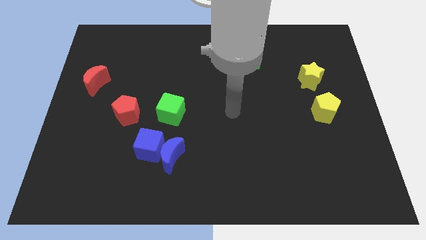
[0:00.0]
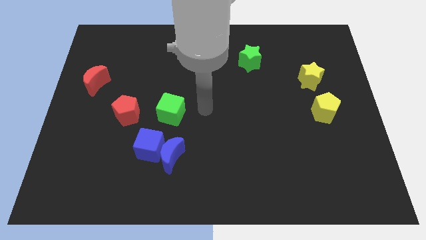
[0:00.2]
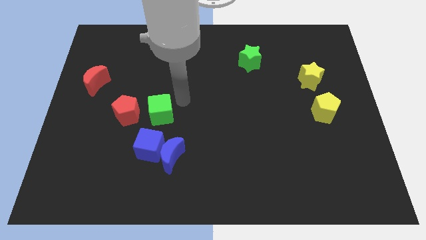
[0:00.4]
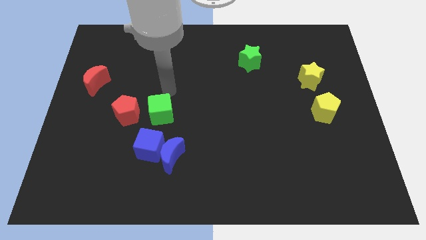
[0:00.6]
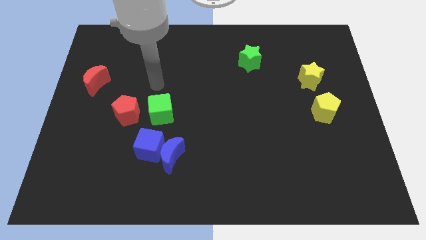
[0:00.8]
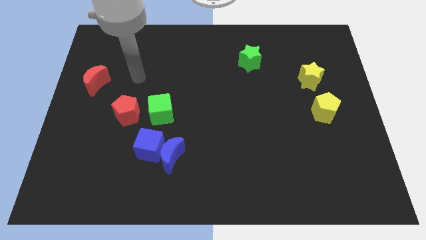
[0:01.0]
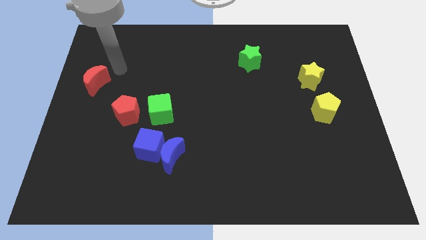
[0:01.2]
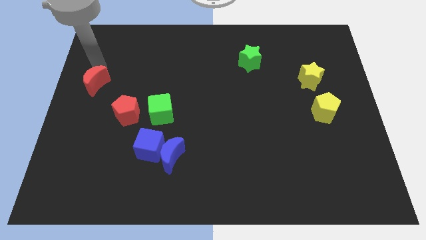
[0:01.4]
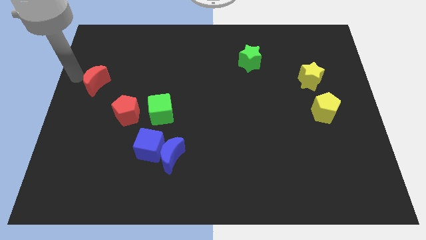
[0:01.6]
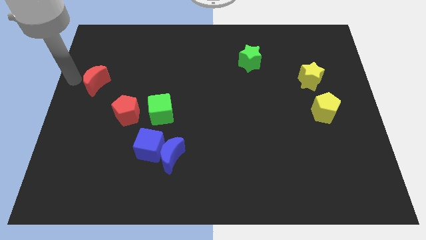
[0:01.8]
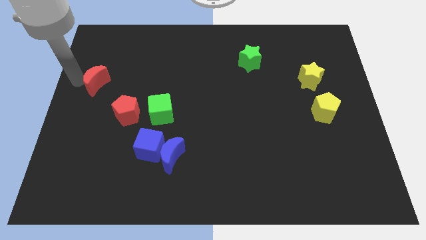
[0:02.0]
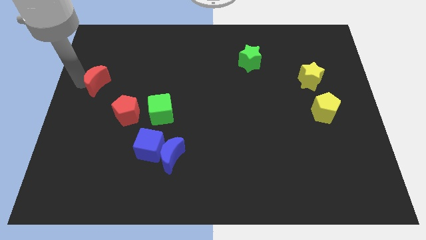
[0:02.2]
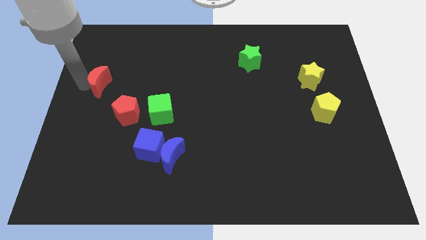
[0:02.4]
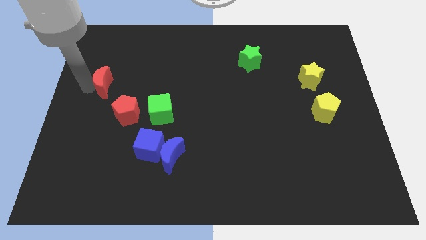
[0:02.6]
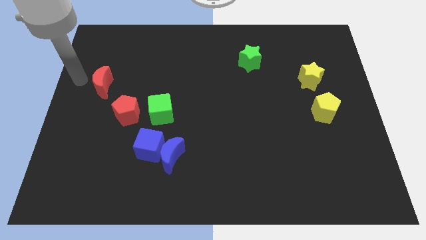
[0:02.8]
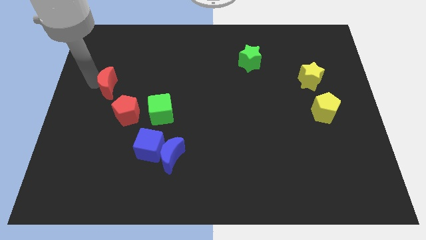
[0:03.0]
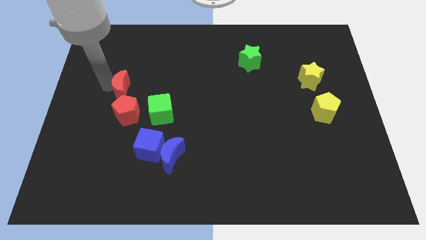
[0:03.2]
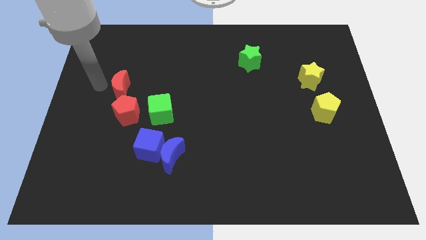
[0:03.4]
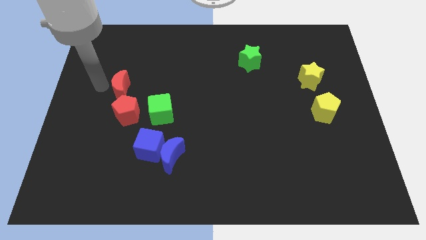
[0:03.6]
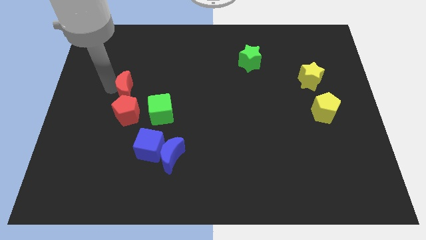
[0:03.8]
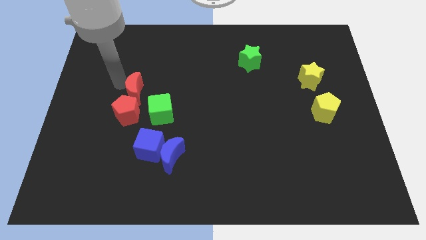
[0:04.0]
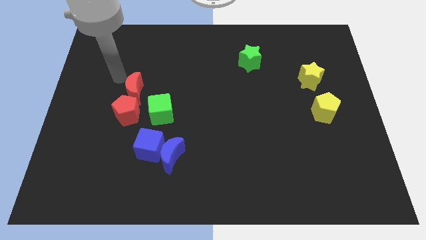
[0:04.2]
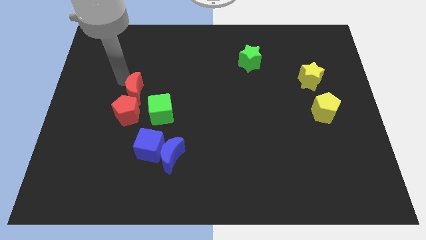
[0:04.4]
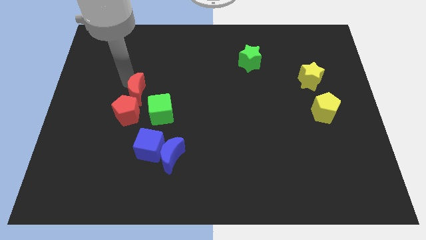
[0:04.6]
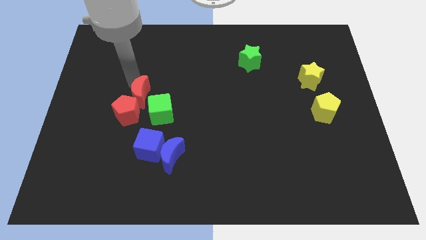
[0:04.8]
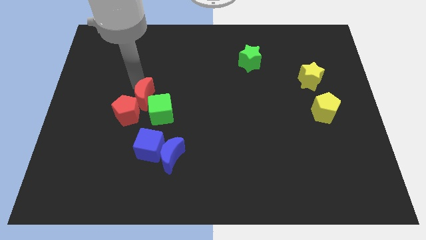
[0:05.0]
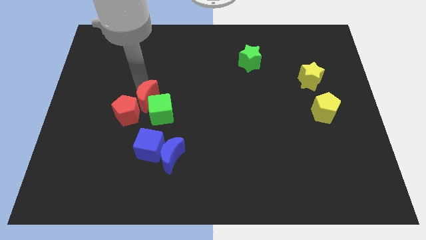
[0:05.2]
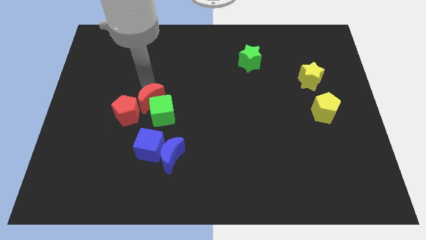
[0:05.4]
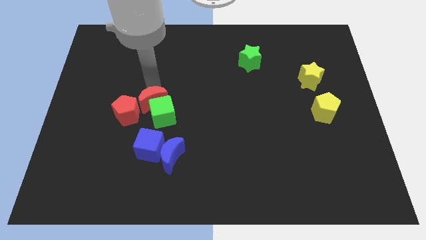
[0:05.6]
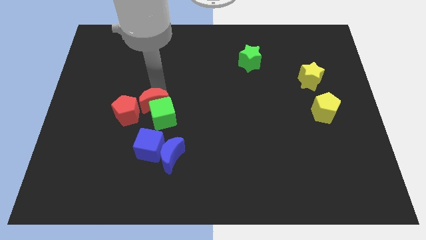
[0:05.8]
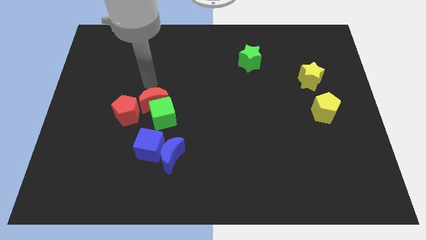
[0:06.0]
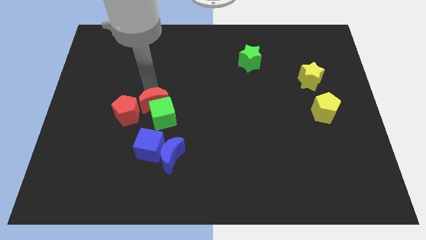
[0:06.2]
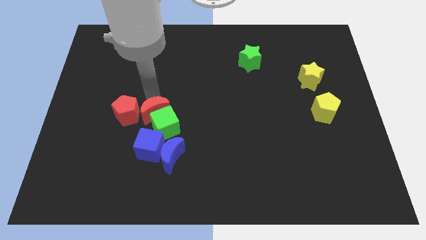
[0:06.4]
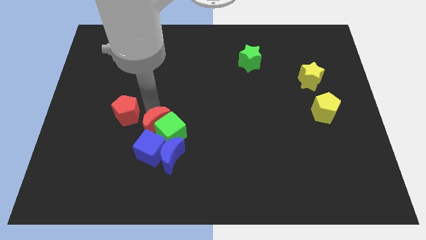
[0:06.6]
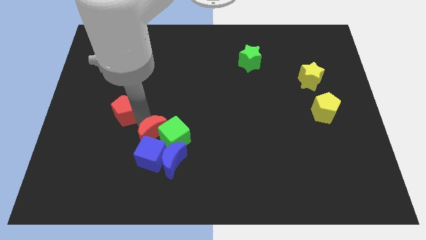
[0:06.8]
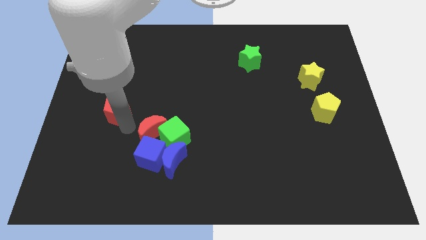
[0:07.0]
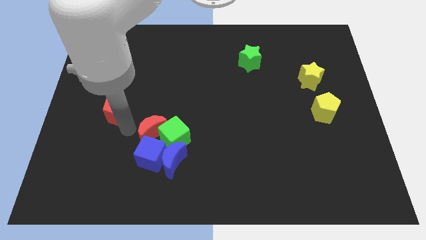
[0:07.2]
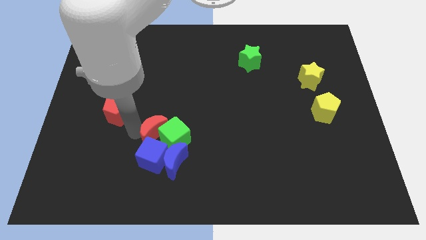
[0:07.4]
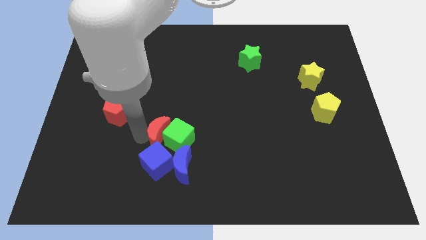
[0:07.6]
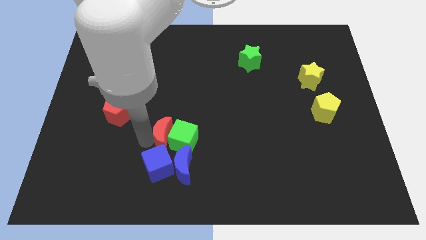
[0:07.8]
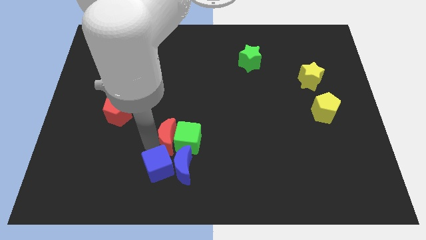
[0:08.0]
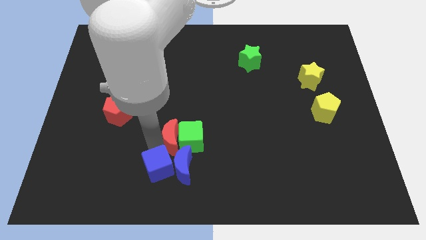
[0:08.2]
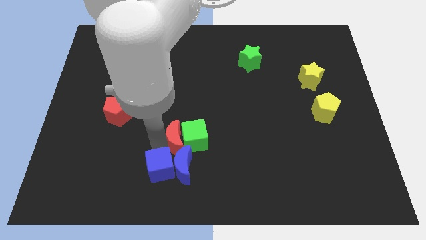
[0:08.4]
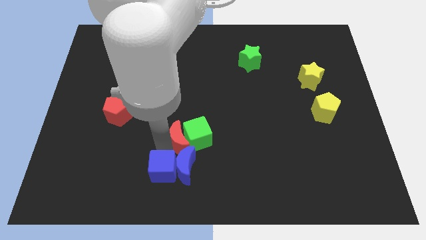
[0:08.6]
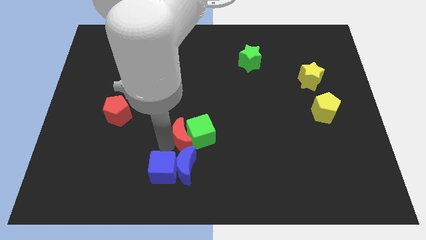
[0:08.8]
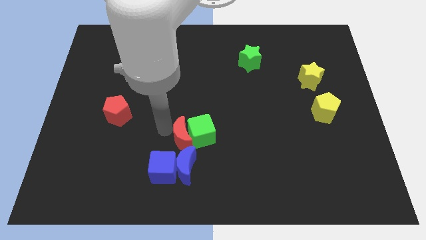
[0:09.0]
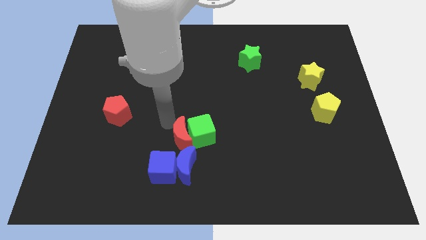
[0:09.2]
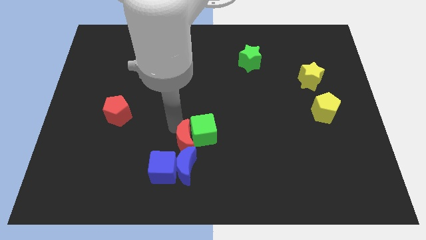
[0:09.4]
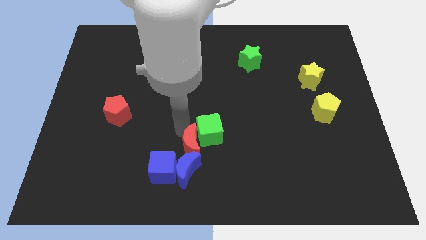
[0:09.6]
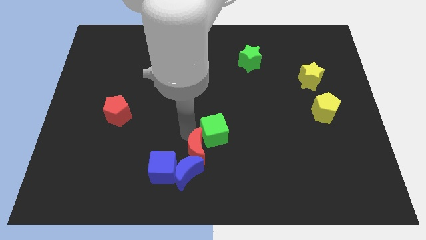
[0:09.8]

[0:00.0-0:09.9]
put the red moon right of the blue cube

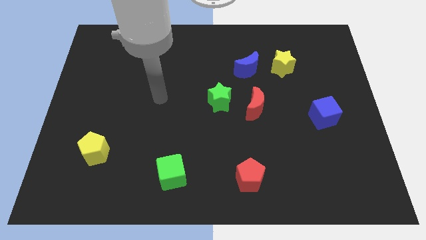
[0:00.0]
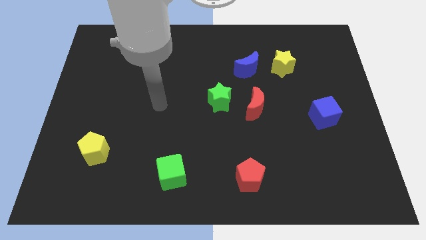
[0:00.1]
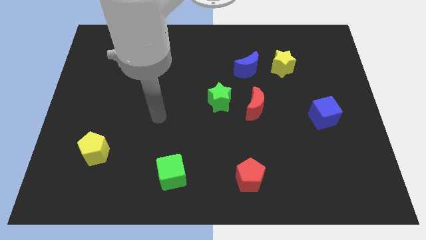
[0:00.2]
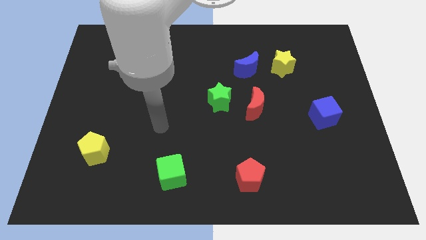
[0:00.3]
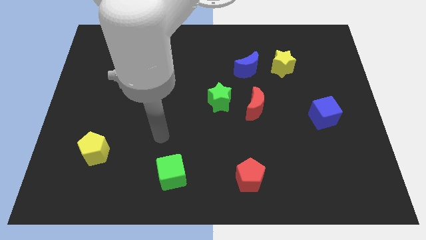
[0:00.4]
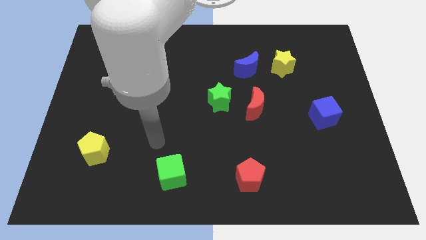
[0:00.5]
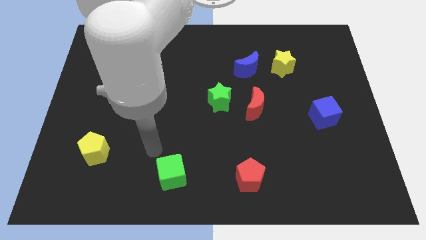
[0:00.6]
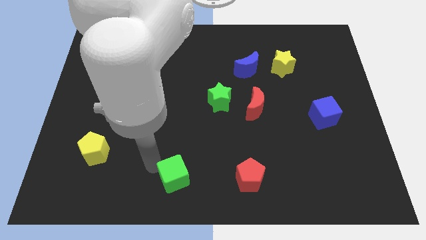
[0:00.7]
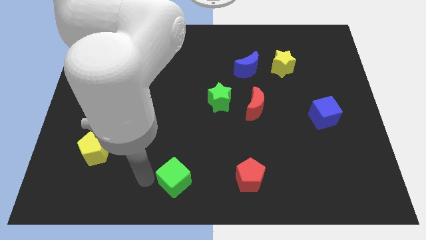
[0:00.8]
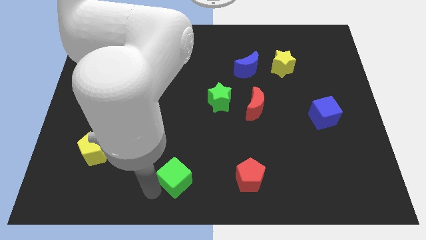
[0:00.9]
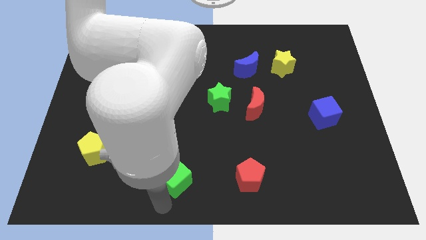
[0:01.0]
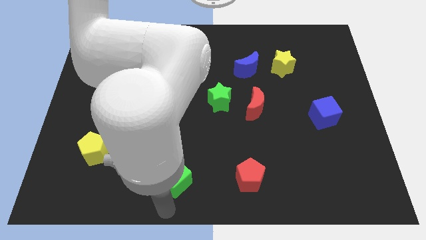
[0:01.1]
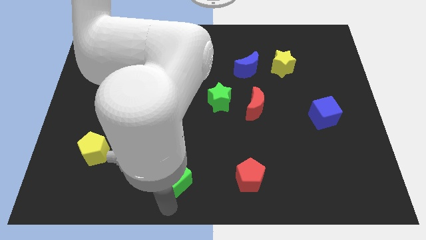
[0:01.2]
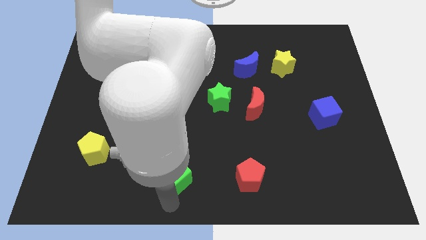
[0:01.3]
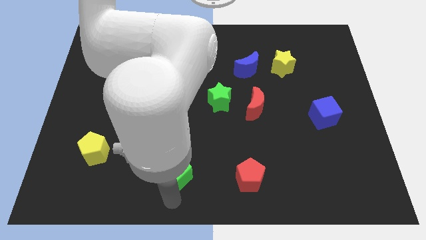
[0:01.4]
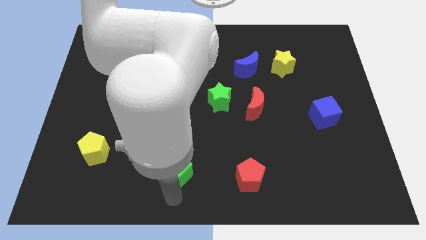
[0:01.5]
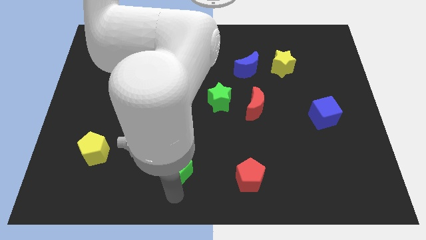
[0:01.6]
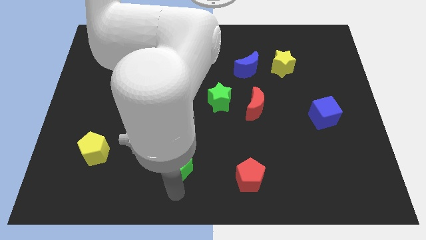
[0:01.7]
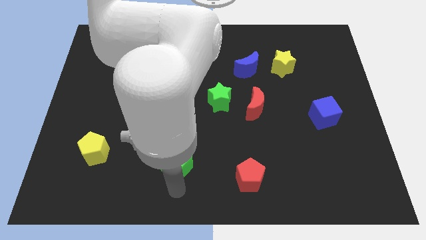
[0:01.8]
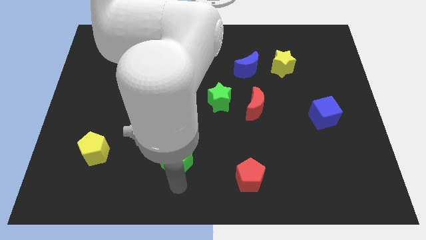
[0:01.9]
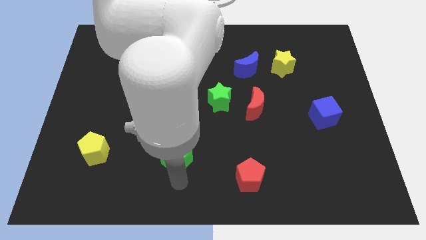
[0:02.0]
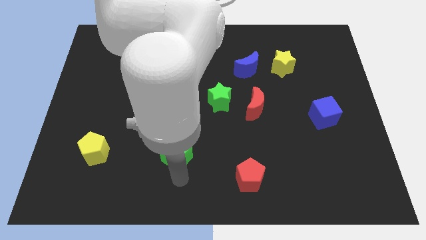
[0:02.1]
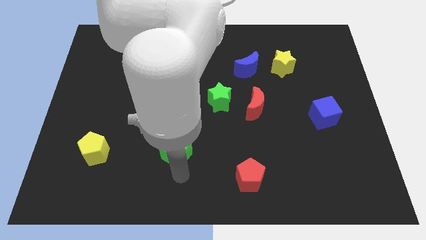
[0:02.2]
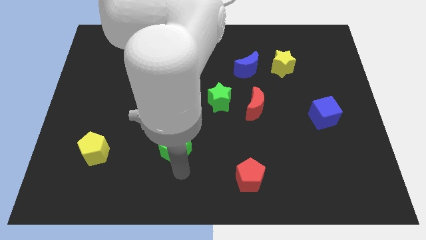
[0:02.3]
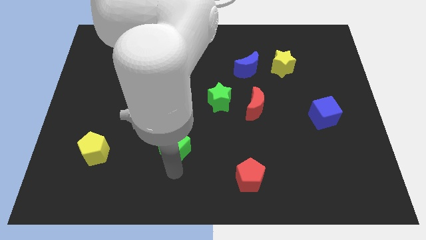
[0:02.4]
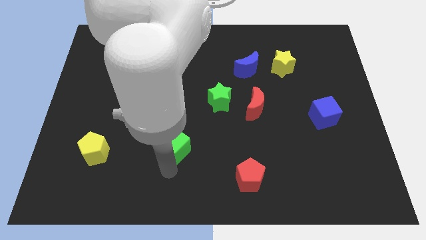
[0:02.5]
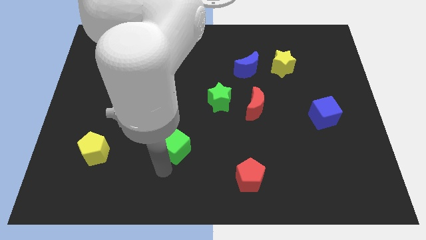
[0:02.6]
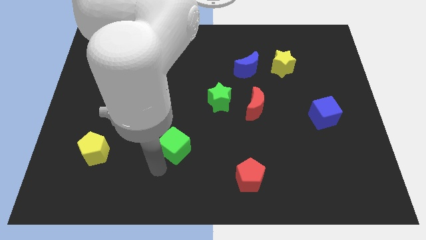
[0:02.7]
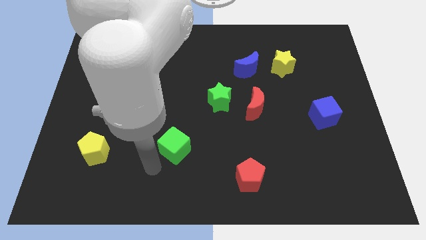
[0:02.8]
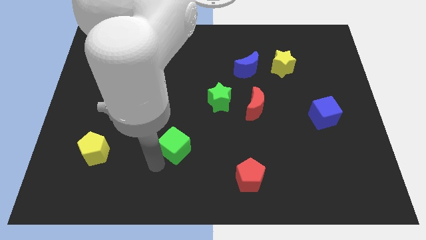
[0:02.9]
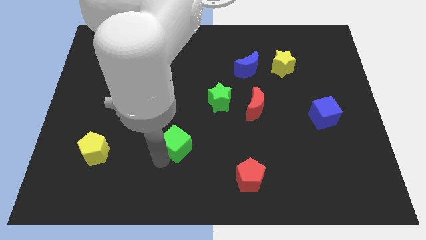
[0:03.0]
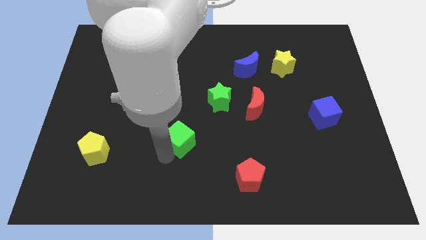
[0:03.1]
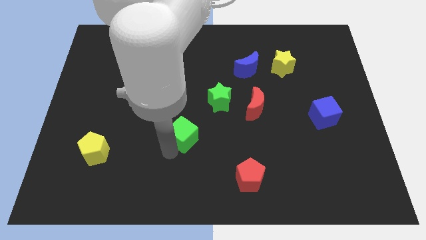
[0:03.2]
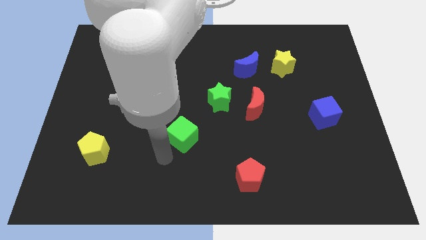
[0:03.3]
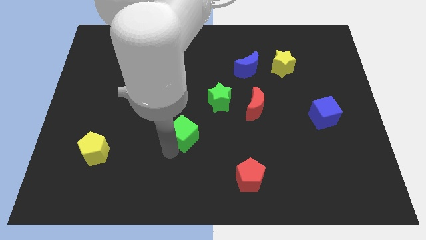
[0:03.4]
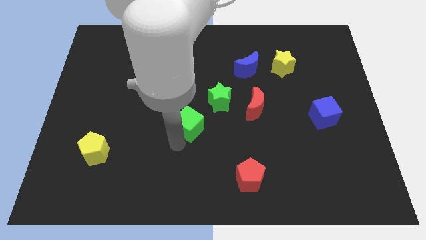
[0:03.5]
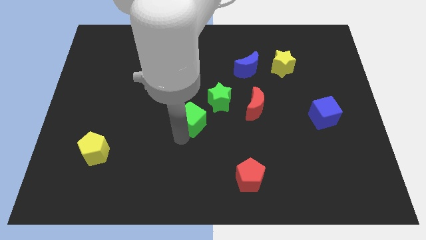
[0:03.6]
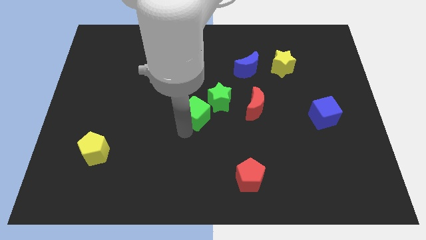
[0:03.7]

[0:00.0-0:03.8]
push the green cube to the left of the red moon
